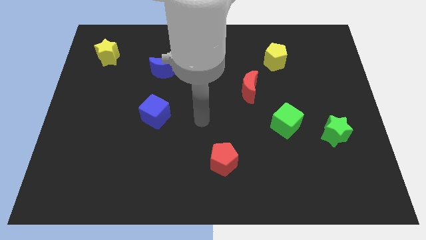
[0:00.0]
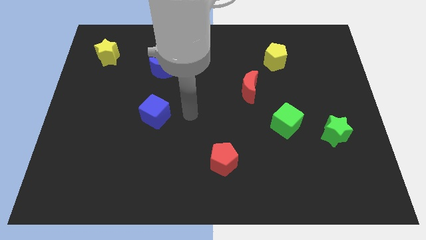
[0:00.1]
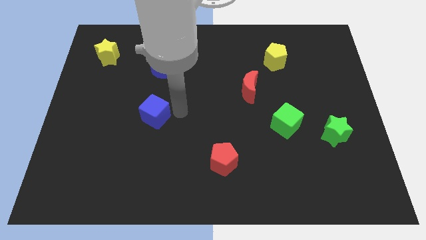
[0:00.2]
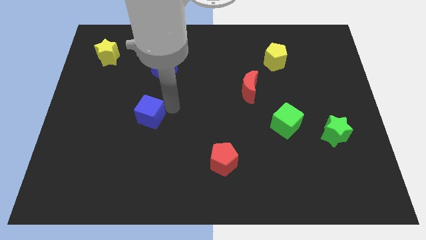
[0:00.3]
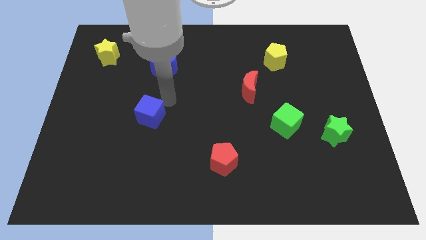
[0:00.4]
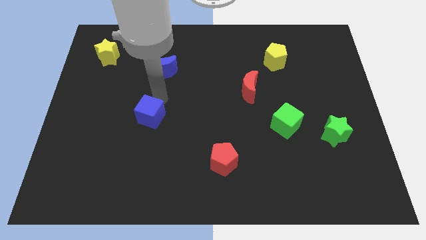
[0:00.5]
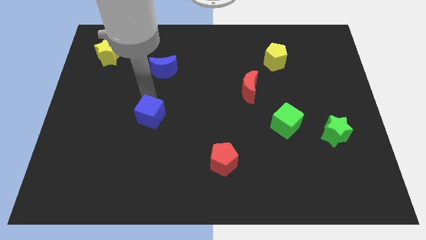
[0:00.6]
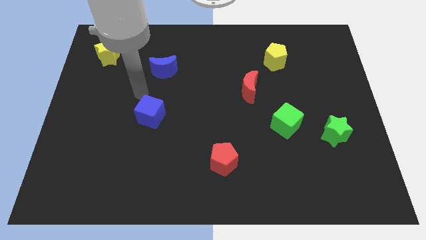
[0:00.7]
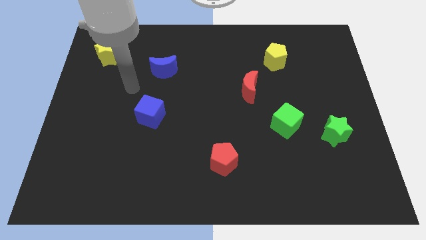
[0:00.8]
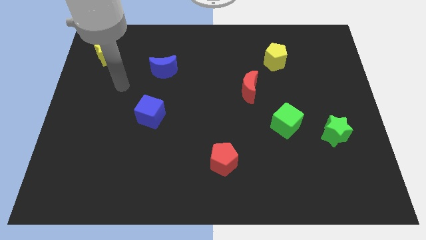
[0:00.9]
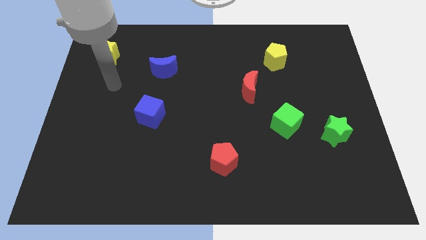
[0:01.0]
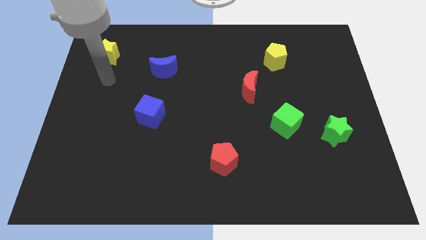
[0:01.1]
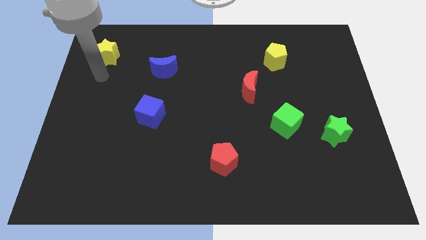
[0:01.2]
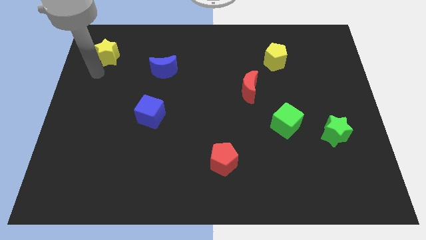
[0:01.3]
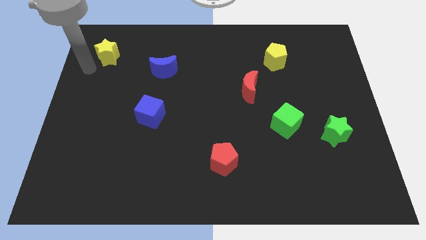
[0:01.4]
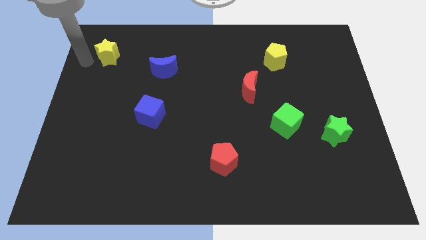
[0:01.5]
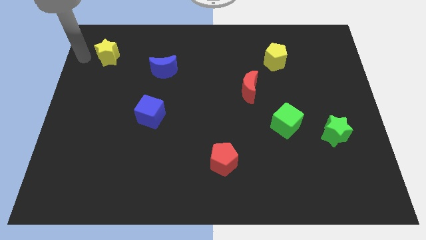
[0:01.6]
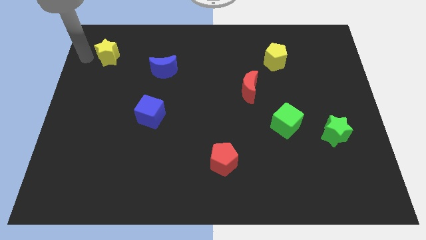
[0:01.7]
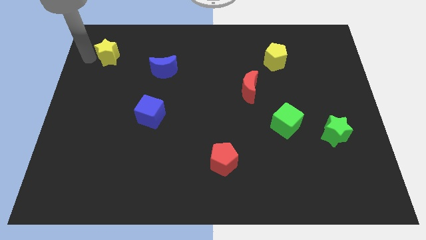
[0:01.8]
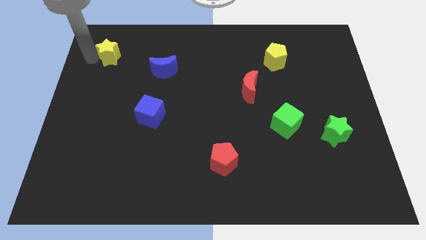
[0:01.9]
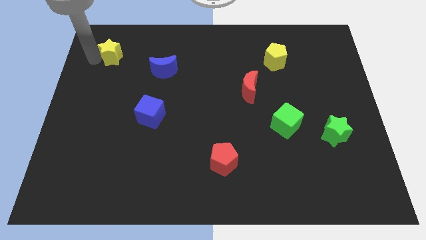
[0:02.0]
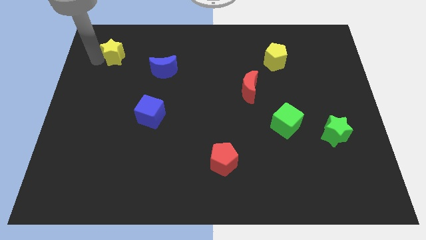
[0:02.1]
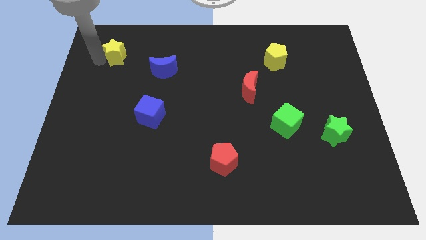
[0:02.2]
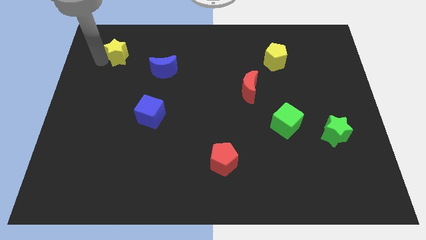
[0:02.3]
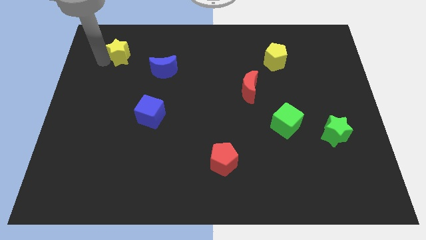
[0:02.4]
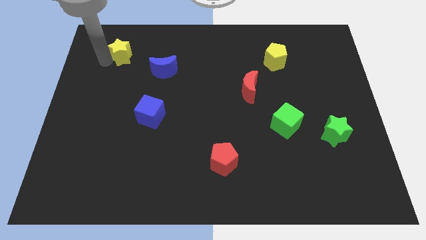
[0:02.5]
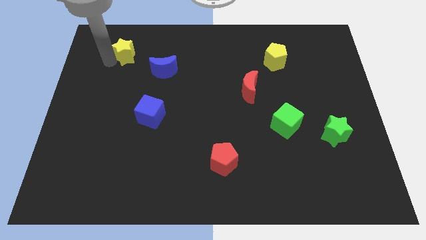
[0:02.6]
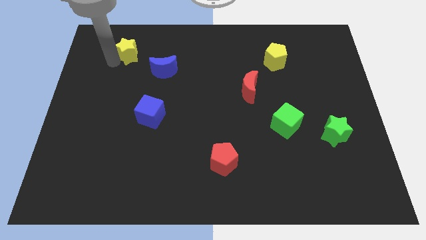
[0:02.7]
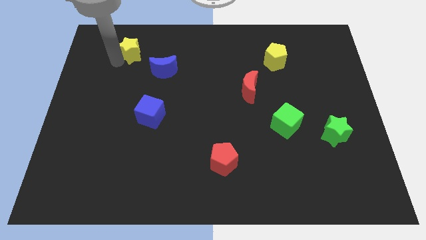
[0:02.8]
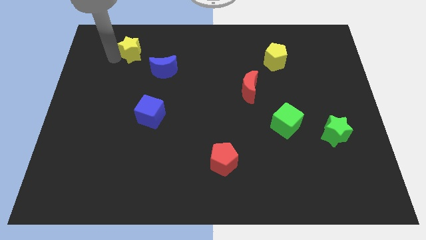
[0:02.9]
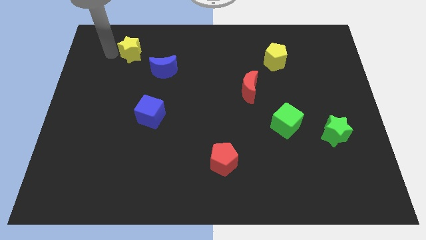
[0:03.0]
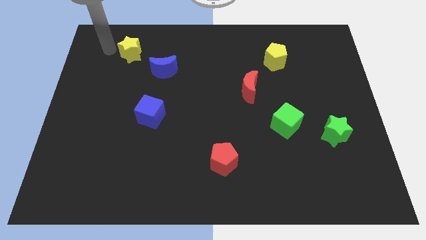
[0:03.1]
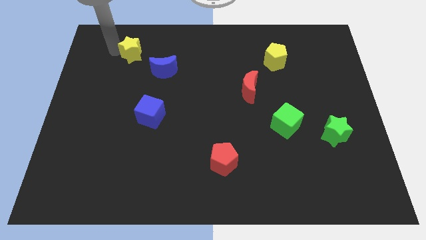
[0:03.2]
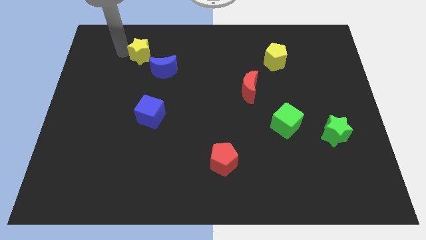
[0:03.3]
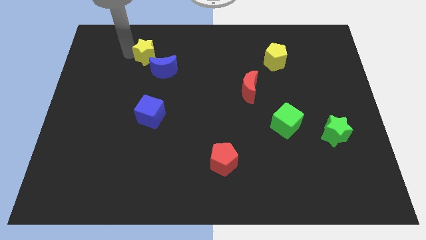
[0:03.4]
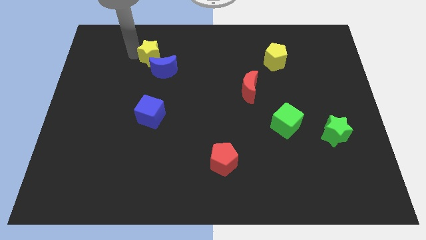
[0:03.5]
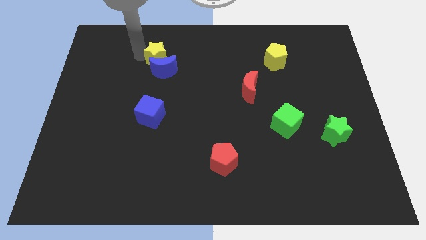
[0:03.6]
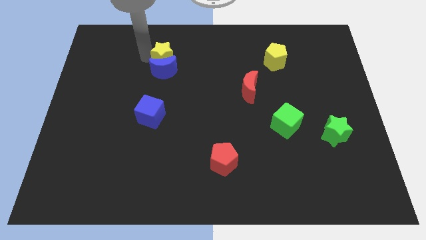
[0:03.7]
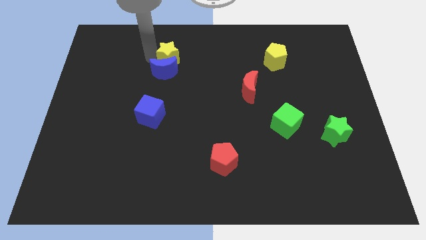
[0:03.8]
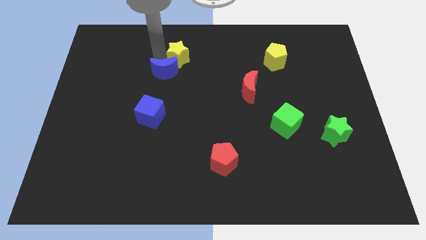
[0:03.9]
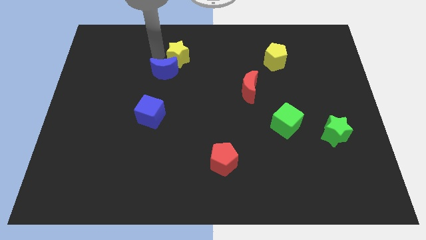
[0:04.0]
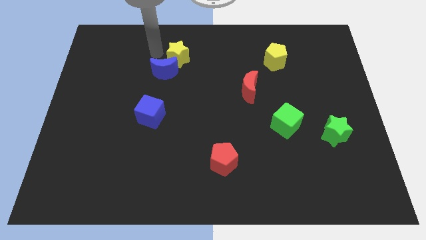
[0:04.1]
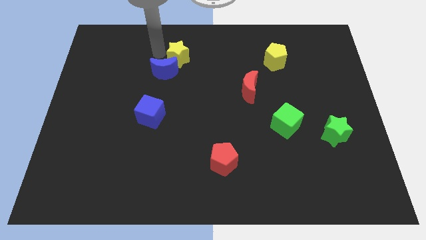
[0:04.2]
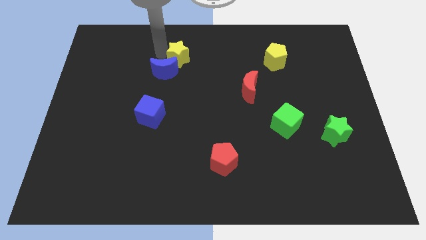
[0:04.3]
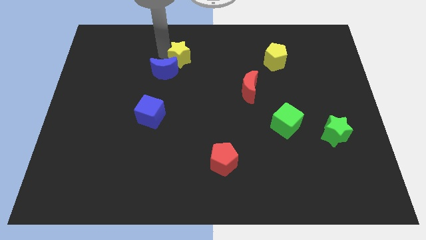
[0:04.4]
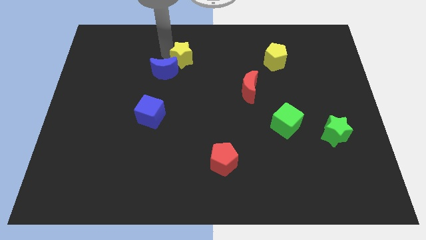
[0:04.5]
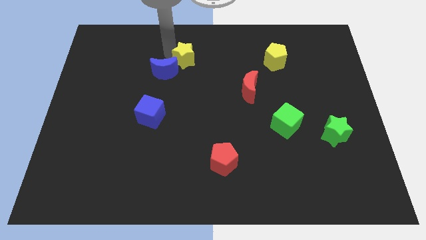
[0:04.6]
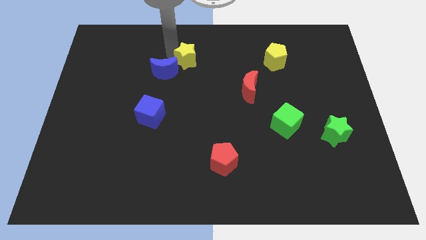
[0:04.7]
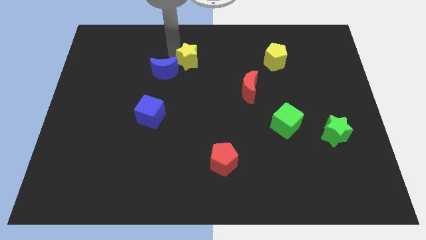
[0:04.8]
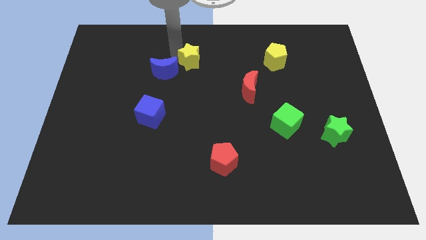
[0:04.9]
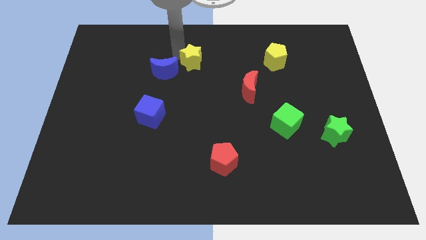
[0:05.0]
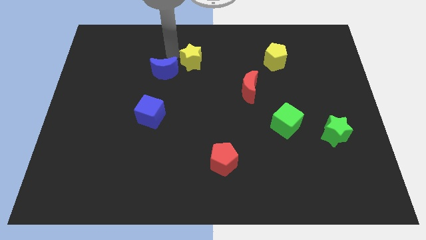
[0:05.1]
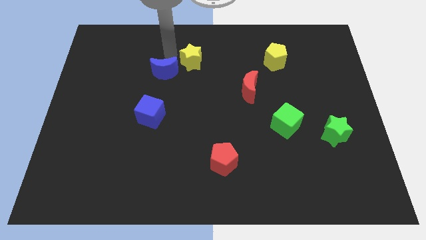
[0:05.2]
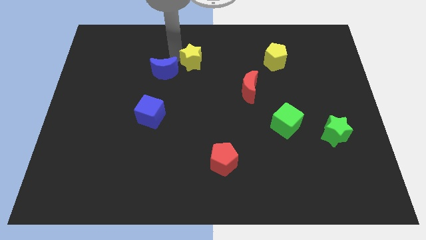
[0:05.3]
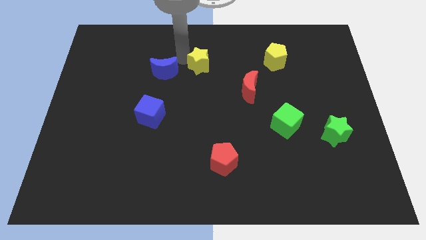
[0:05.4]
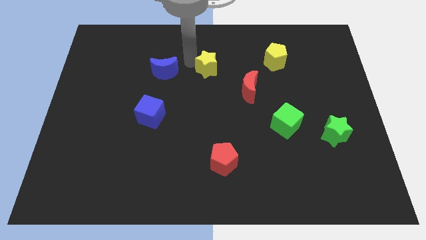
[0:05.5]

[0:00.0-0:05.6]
push the yellow star to the top left of the red moon

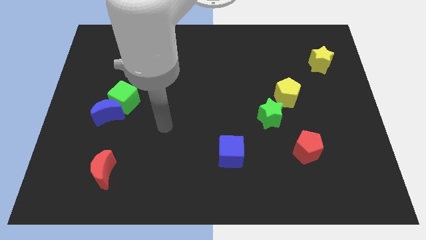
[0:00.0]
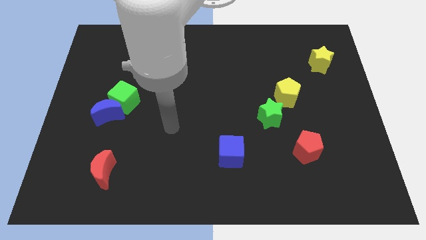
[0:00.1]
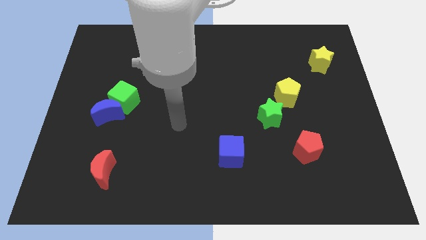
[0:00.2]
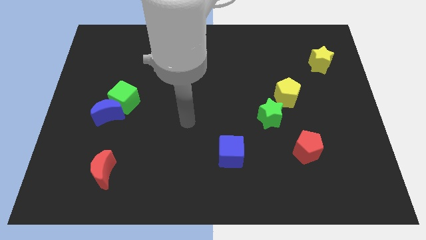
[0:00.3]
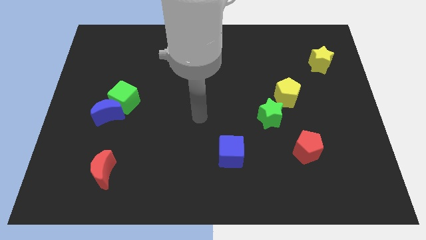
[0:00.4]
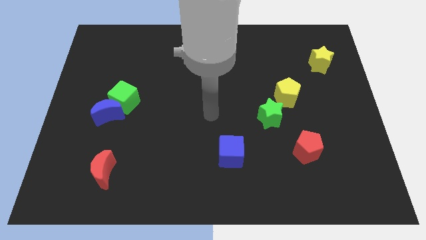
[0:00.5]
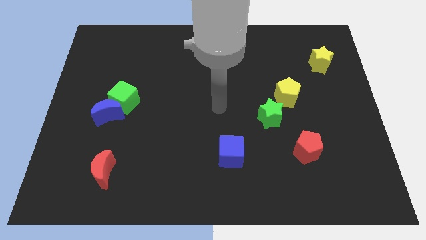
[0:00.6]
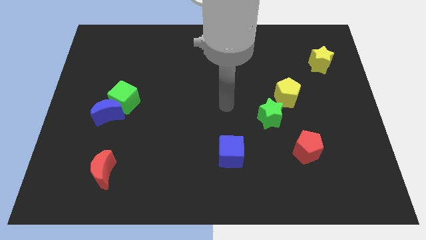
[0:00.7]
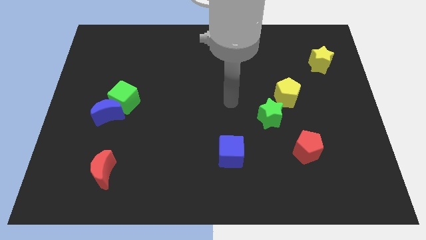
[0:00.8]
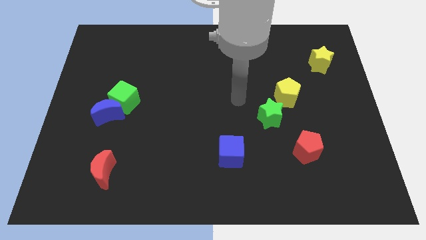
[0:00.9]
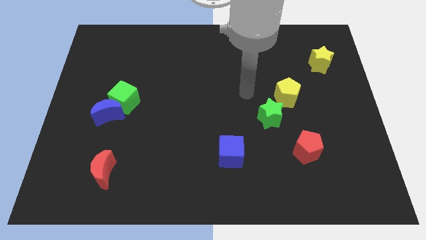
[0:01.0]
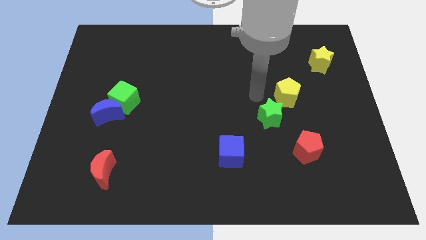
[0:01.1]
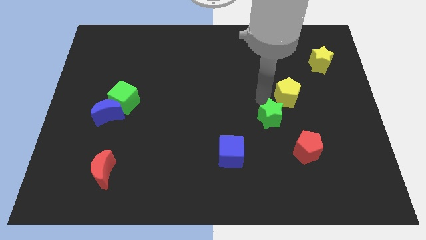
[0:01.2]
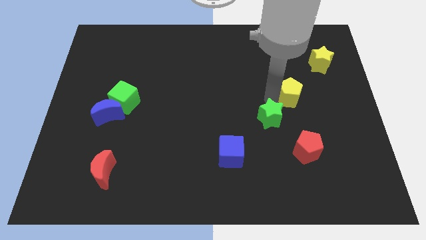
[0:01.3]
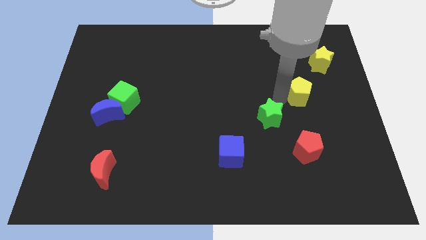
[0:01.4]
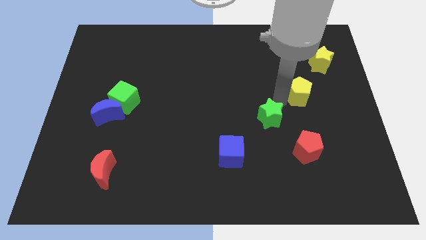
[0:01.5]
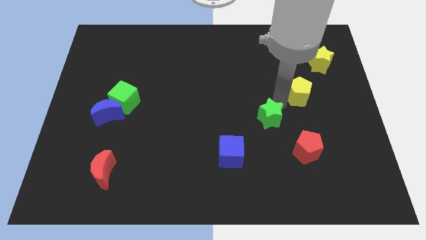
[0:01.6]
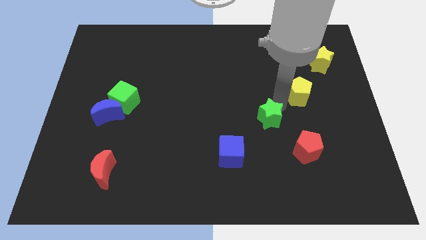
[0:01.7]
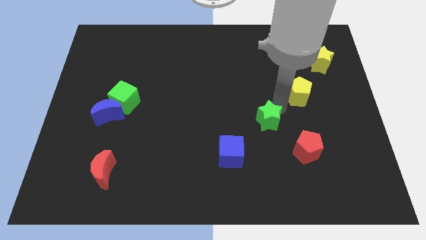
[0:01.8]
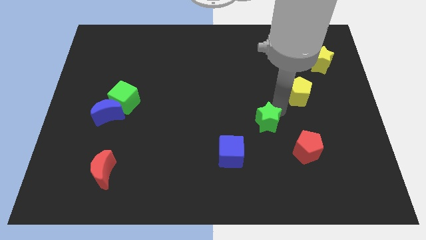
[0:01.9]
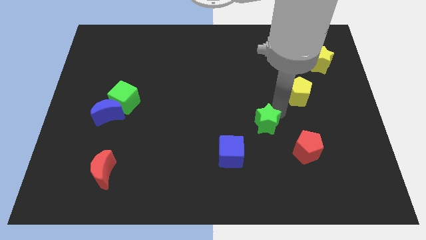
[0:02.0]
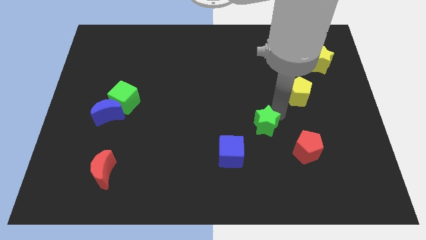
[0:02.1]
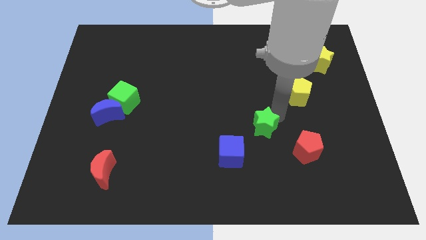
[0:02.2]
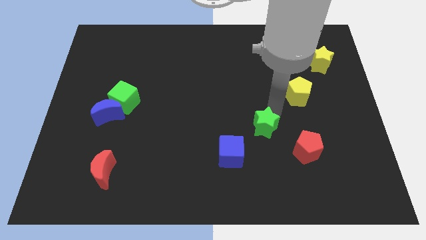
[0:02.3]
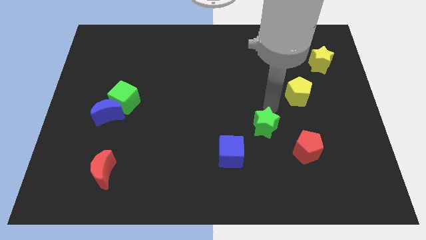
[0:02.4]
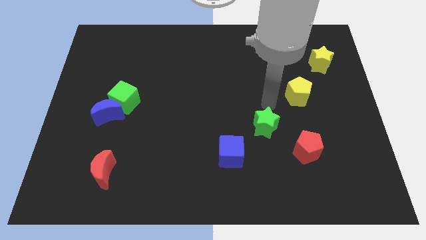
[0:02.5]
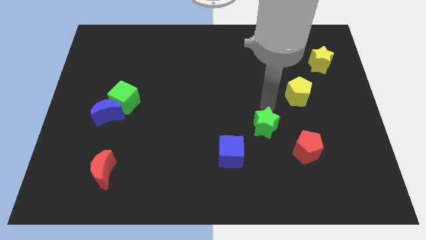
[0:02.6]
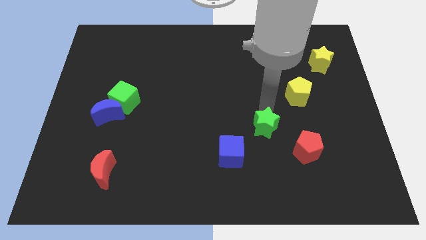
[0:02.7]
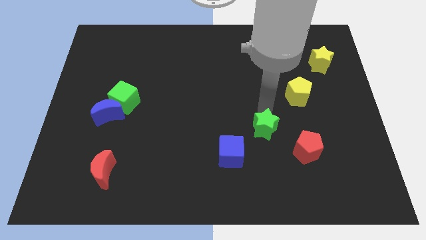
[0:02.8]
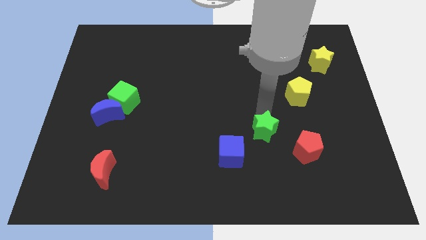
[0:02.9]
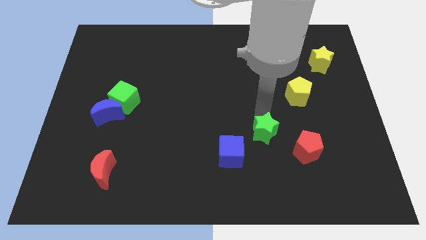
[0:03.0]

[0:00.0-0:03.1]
push the green star to the left side of the red pentagon
